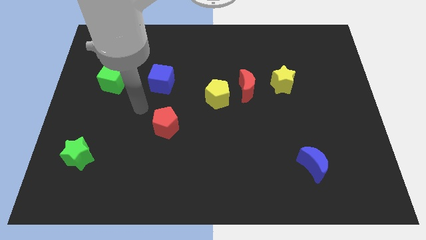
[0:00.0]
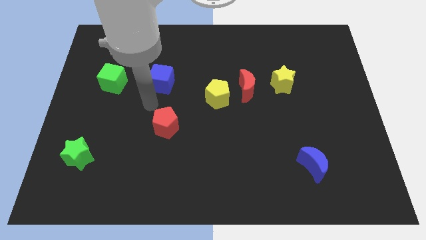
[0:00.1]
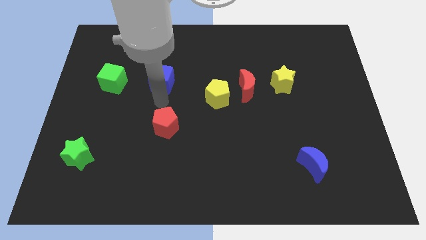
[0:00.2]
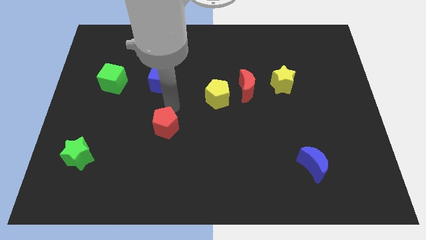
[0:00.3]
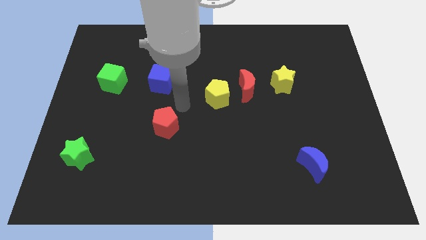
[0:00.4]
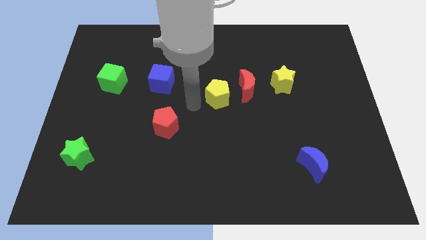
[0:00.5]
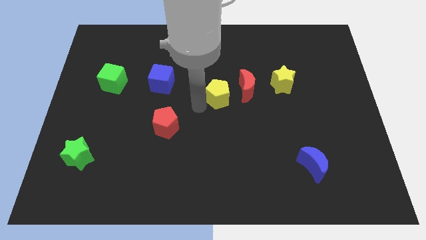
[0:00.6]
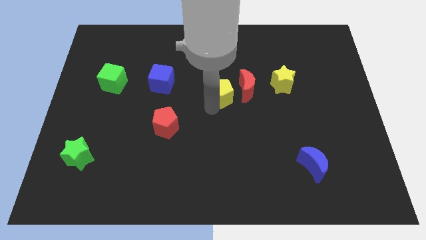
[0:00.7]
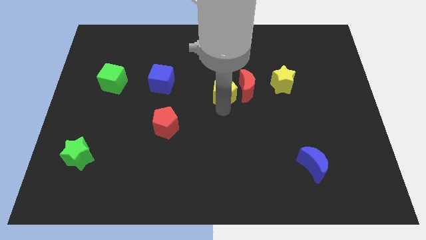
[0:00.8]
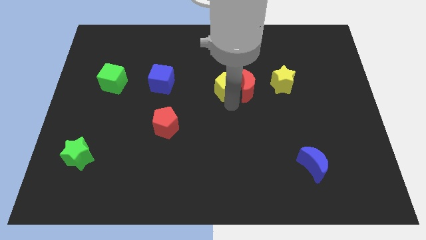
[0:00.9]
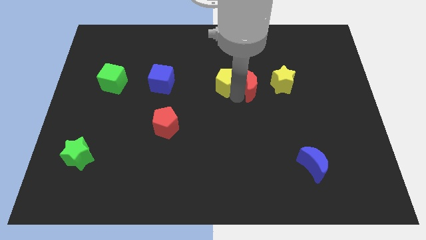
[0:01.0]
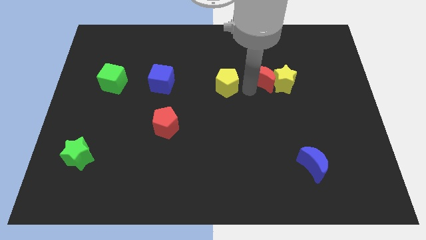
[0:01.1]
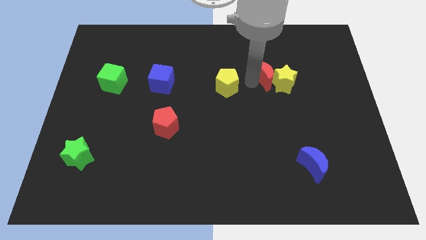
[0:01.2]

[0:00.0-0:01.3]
separate the yellow pentagon from the red moon

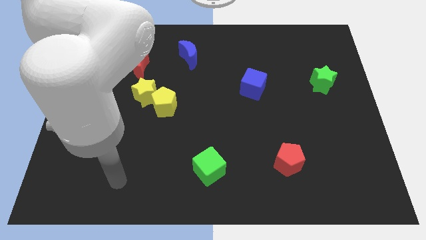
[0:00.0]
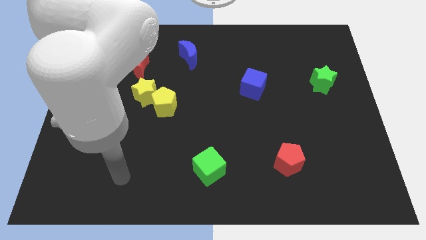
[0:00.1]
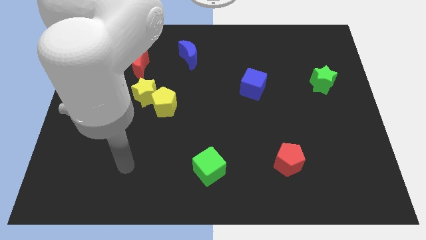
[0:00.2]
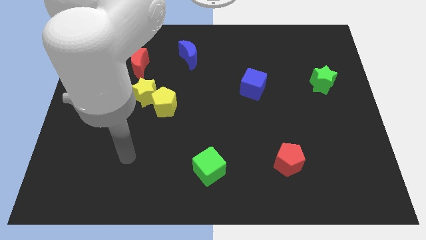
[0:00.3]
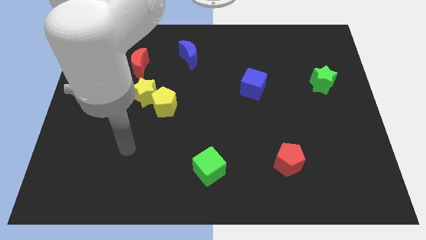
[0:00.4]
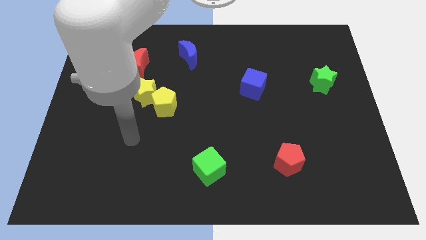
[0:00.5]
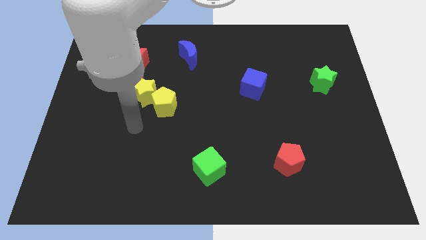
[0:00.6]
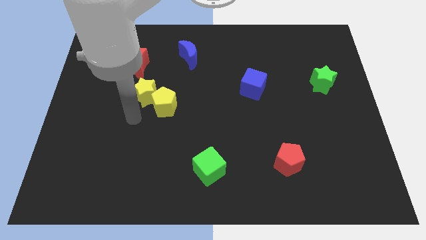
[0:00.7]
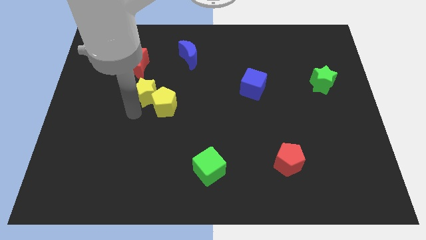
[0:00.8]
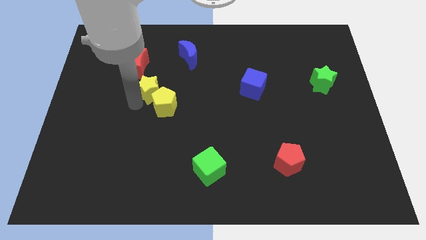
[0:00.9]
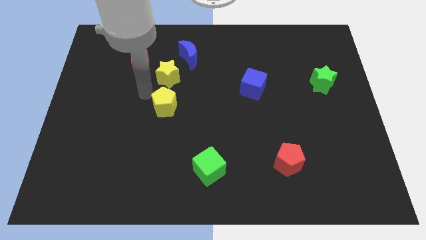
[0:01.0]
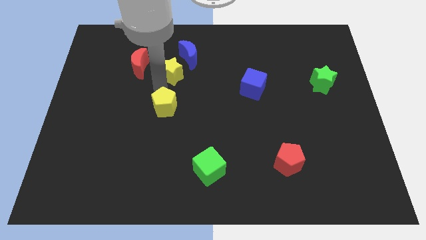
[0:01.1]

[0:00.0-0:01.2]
move the yellow pentagon away from the yellow star

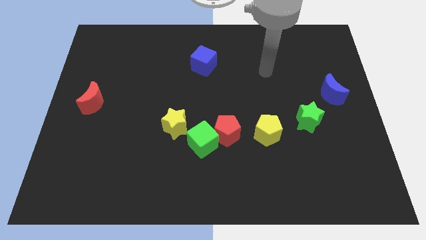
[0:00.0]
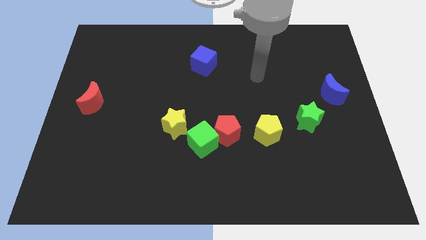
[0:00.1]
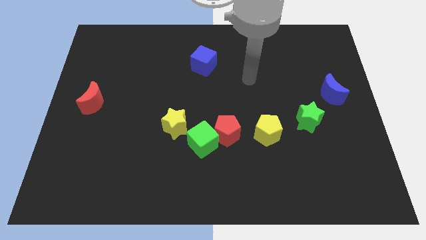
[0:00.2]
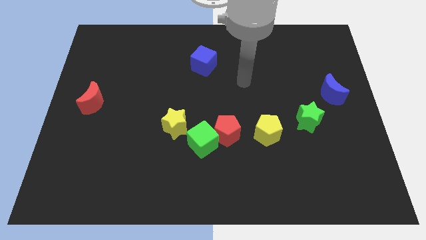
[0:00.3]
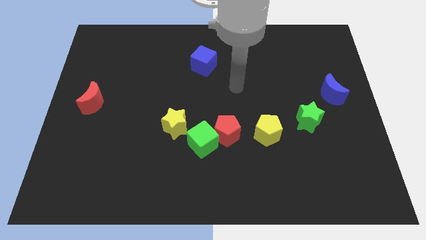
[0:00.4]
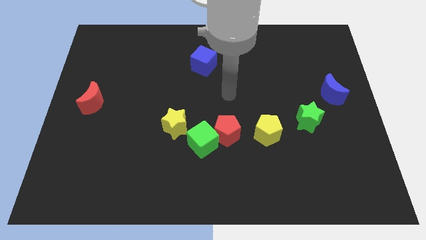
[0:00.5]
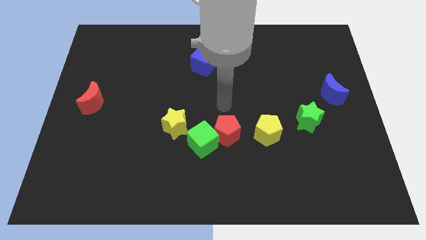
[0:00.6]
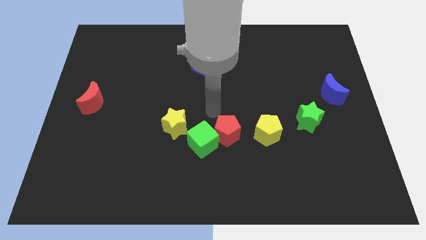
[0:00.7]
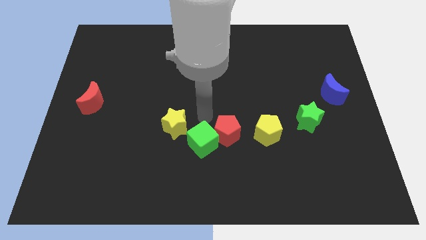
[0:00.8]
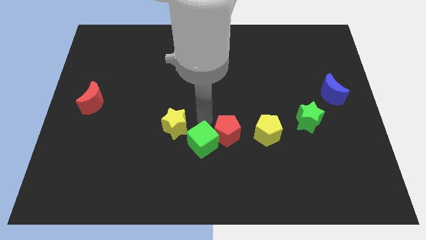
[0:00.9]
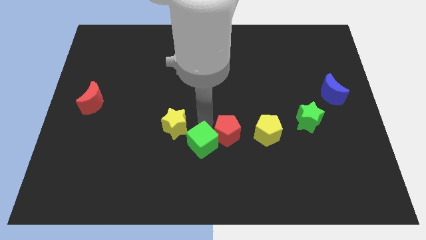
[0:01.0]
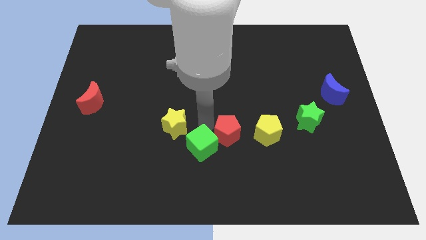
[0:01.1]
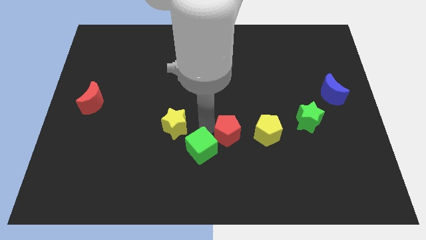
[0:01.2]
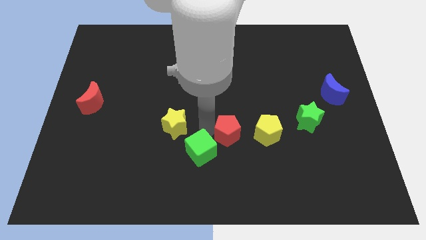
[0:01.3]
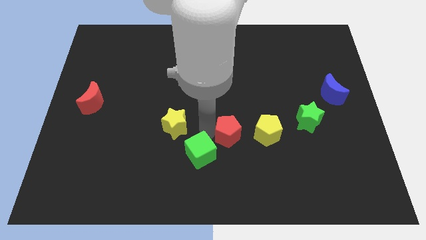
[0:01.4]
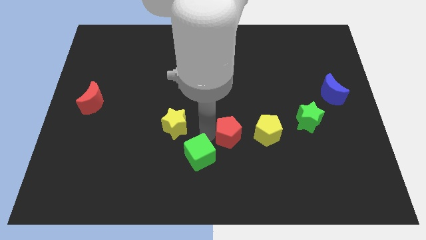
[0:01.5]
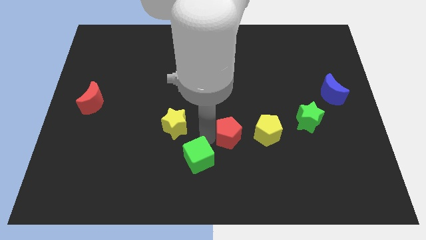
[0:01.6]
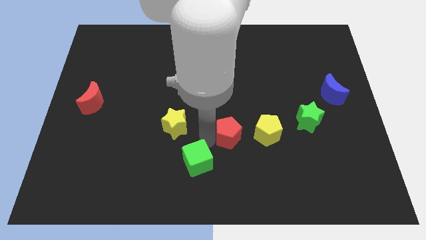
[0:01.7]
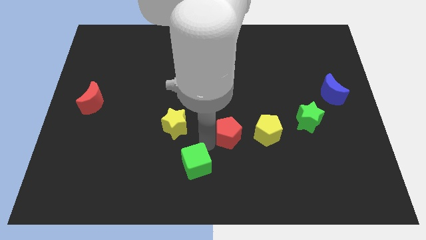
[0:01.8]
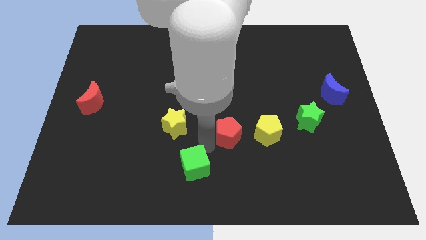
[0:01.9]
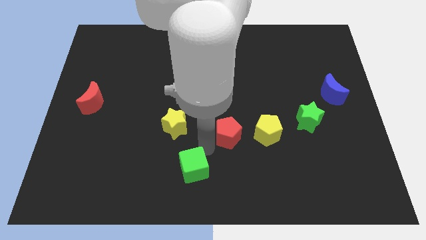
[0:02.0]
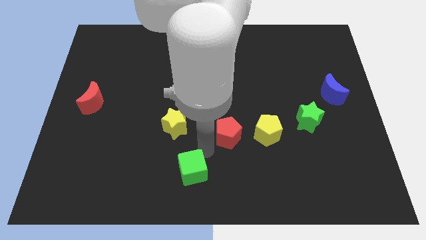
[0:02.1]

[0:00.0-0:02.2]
separate the green cube from the red pentagon and yellow star

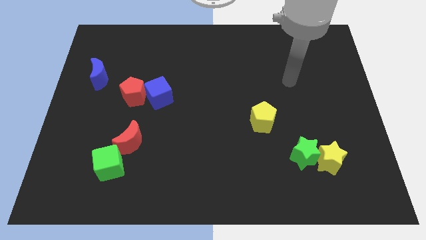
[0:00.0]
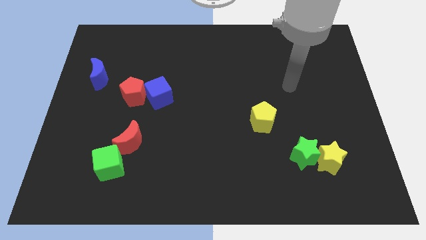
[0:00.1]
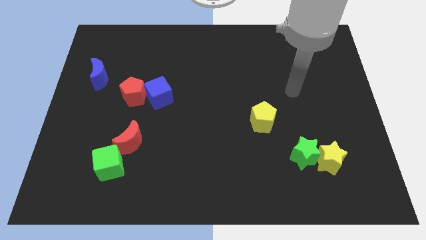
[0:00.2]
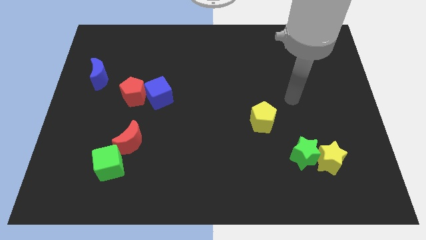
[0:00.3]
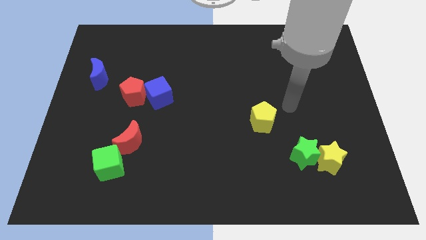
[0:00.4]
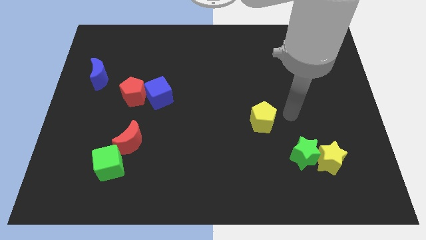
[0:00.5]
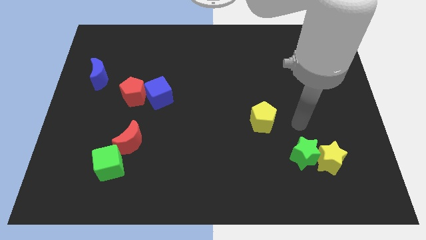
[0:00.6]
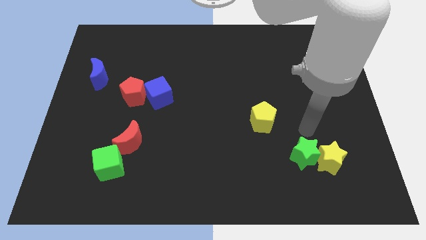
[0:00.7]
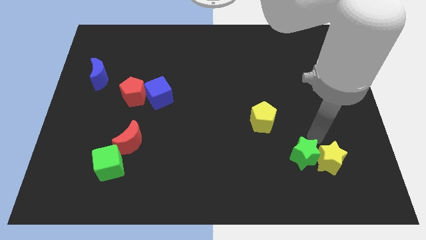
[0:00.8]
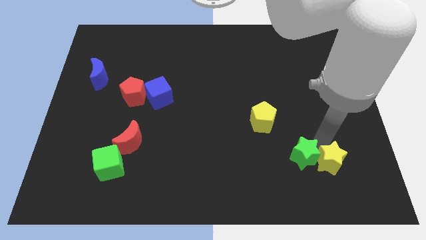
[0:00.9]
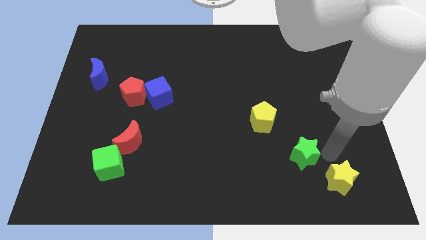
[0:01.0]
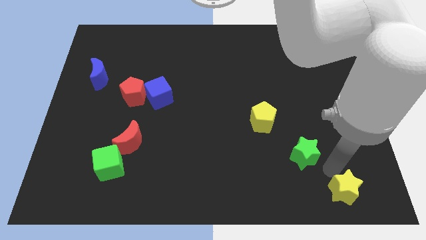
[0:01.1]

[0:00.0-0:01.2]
move the green star away from the yellow star

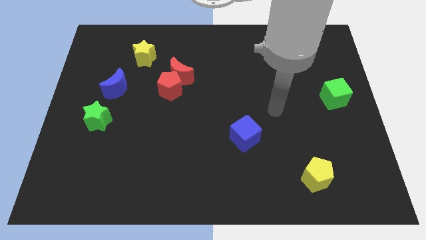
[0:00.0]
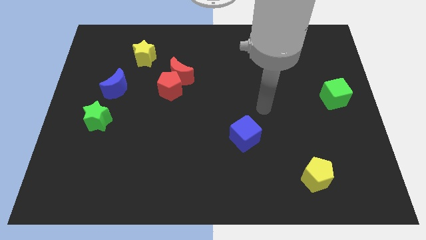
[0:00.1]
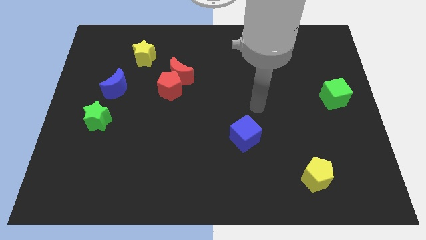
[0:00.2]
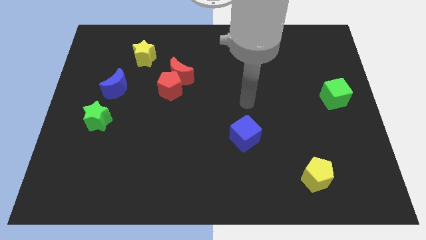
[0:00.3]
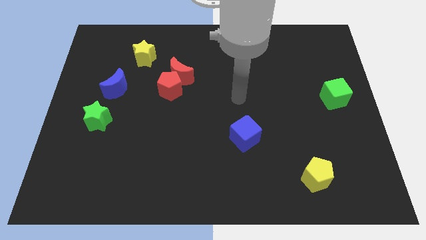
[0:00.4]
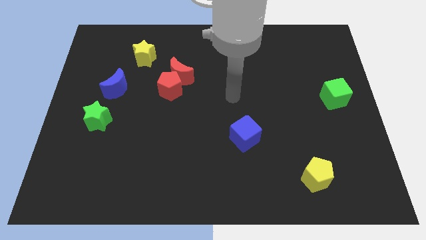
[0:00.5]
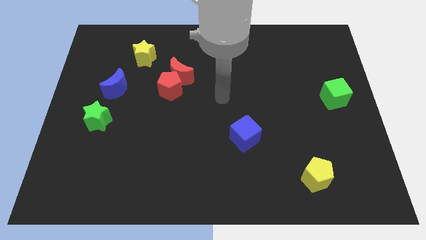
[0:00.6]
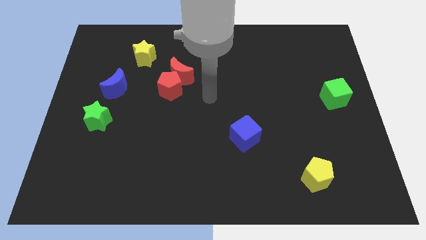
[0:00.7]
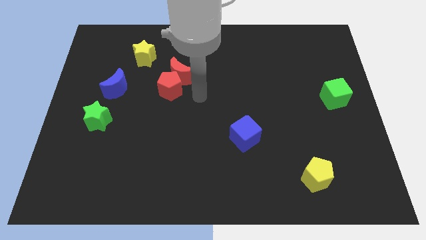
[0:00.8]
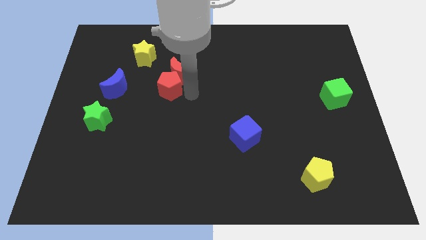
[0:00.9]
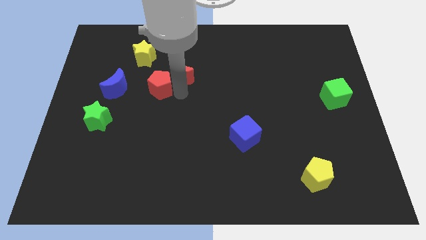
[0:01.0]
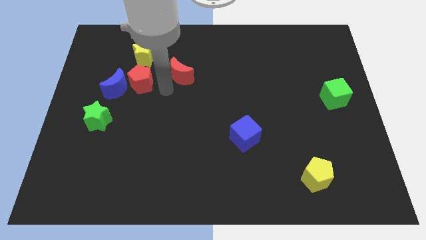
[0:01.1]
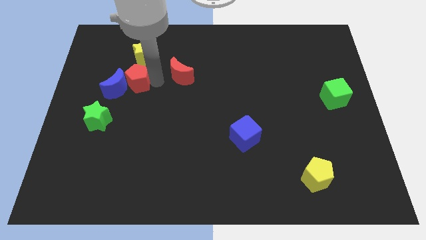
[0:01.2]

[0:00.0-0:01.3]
move the red moon away from the red pentagon

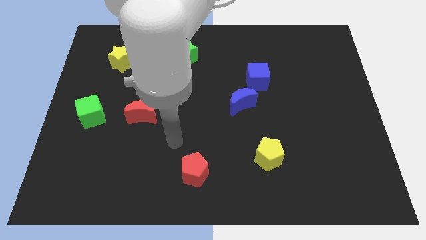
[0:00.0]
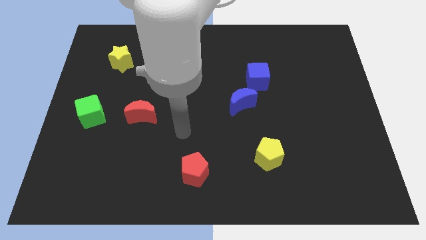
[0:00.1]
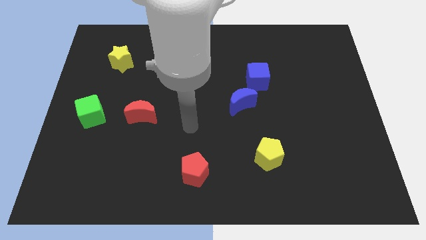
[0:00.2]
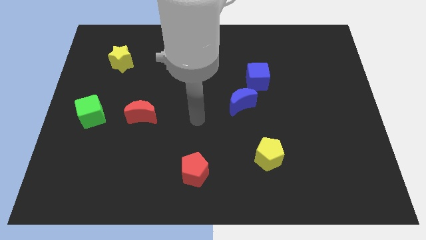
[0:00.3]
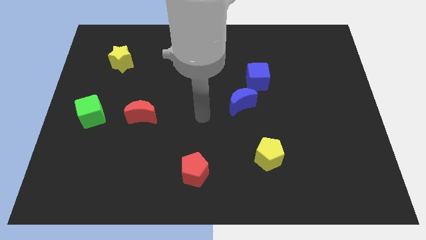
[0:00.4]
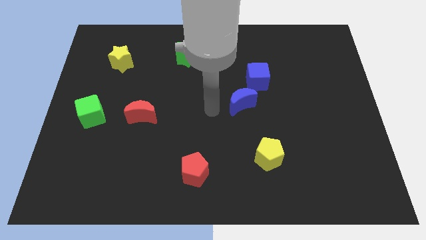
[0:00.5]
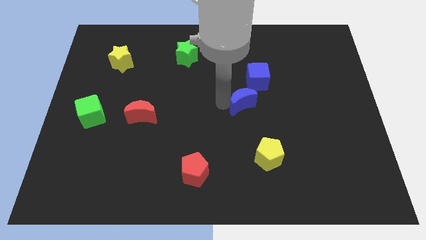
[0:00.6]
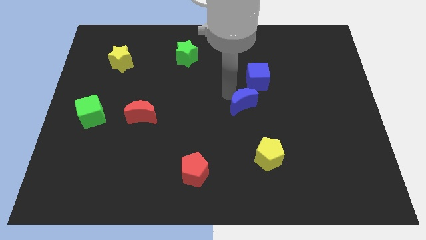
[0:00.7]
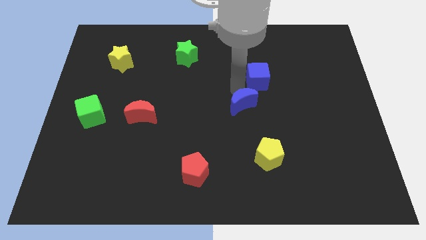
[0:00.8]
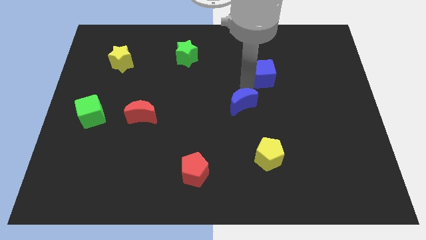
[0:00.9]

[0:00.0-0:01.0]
pull the blue moon apart from the blue cube

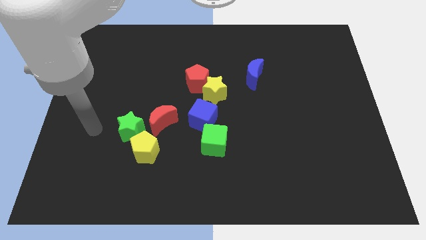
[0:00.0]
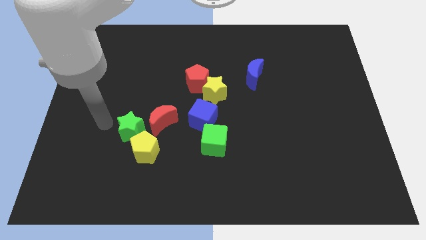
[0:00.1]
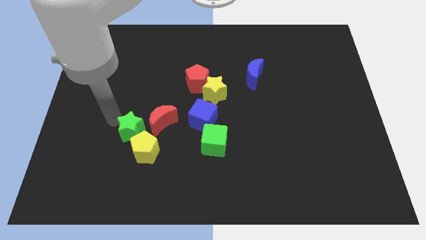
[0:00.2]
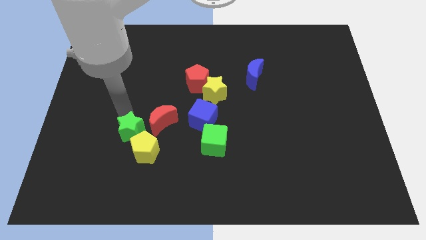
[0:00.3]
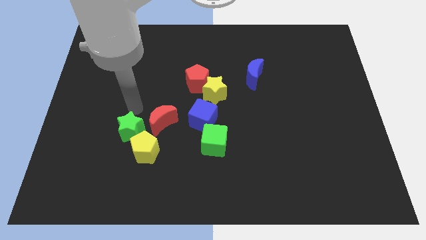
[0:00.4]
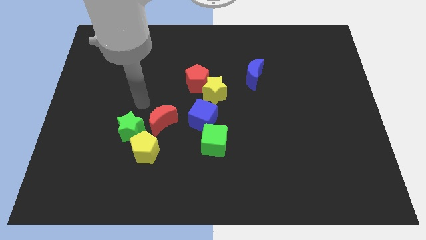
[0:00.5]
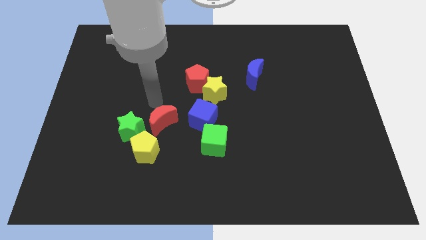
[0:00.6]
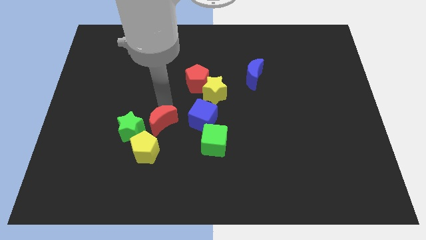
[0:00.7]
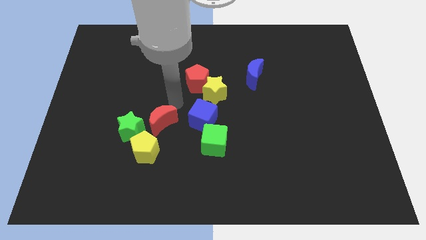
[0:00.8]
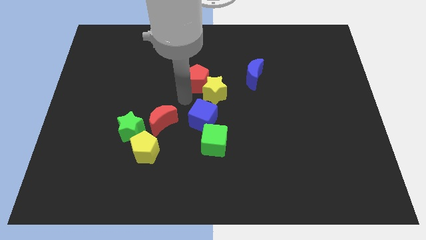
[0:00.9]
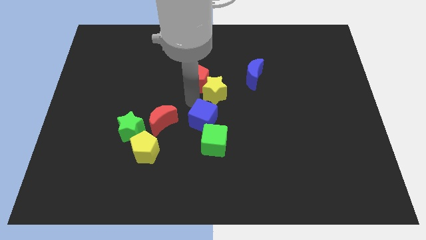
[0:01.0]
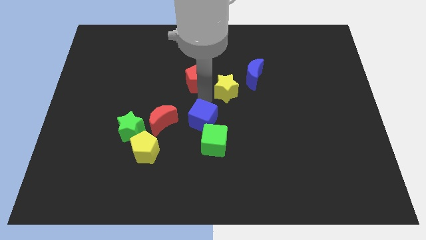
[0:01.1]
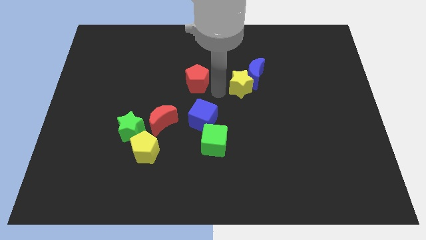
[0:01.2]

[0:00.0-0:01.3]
move the red pentagon away from the yellow star
